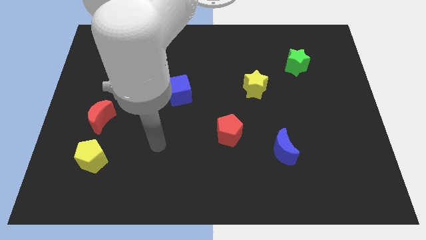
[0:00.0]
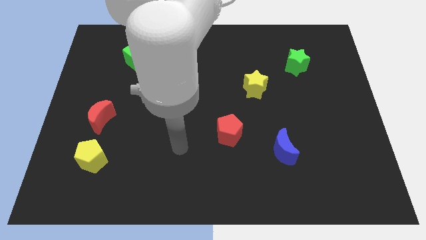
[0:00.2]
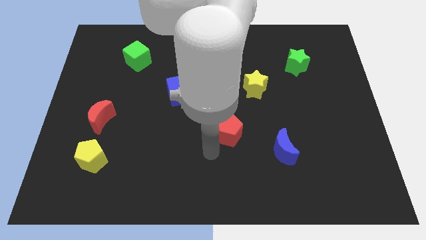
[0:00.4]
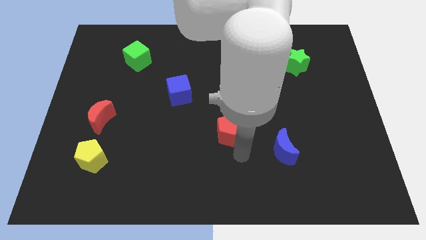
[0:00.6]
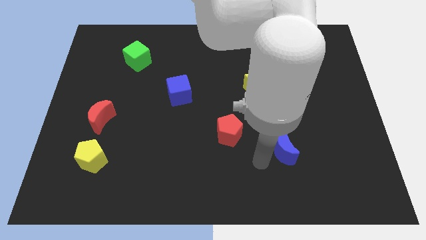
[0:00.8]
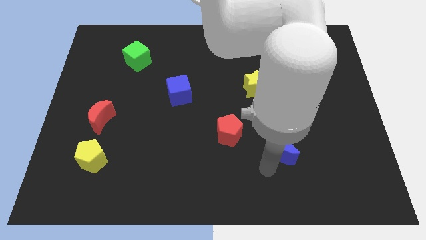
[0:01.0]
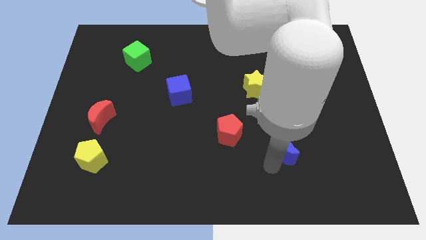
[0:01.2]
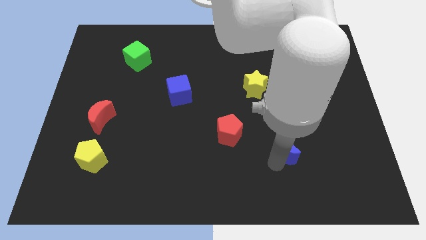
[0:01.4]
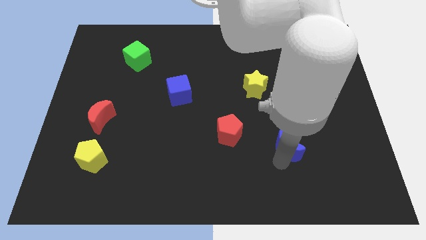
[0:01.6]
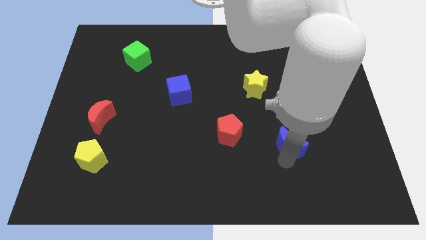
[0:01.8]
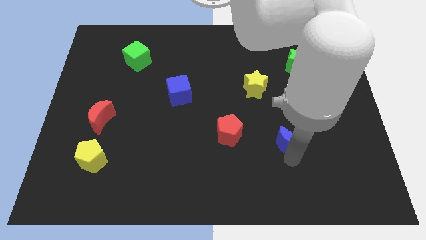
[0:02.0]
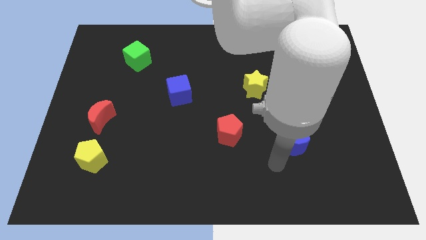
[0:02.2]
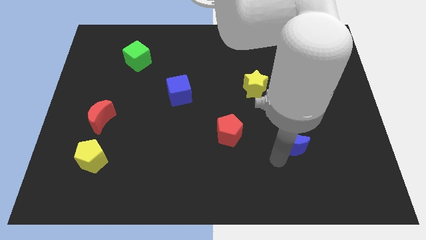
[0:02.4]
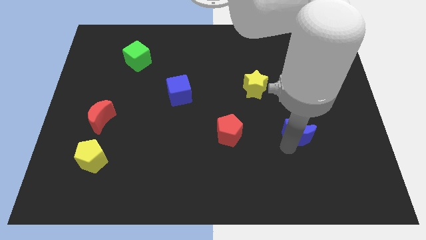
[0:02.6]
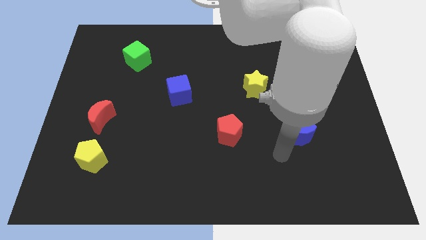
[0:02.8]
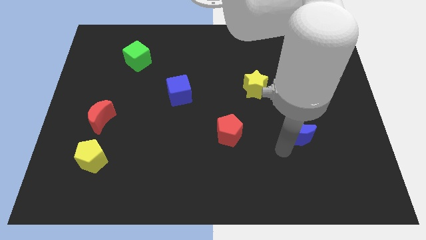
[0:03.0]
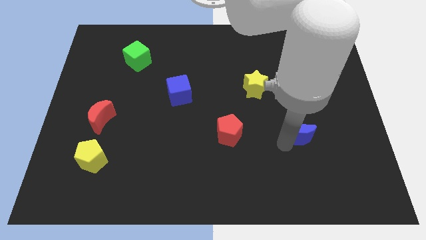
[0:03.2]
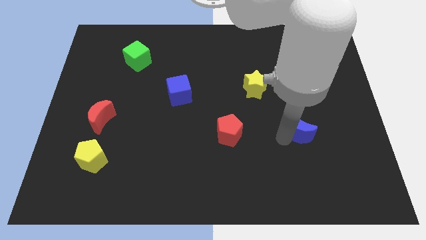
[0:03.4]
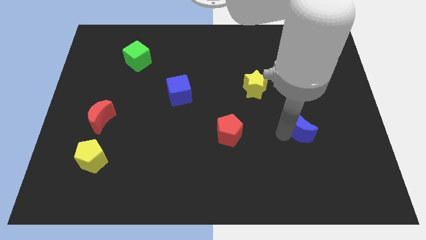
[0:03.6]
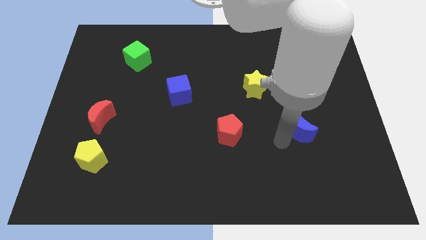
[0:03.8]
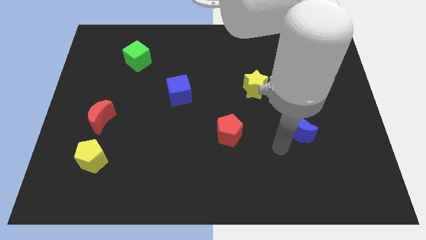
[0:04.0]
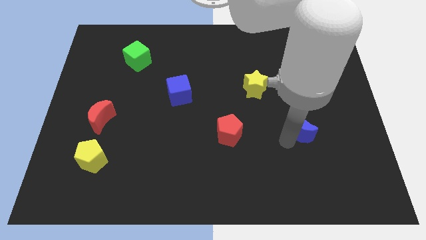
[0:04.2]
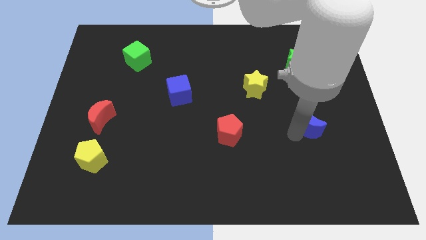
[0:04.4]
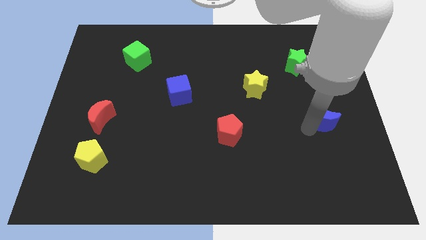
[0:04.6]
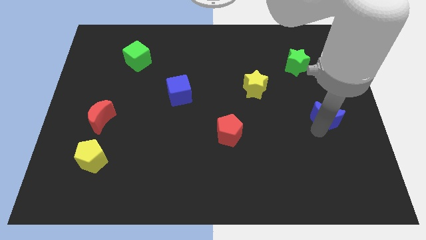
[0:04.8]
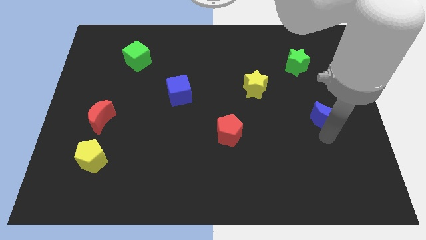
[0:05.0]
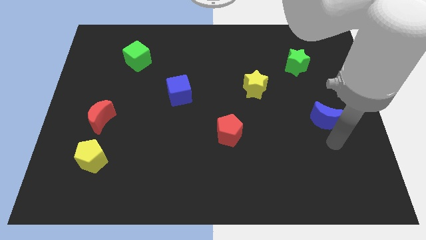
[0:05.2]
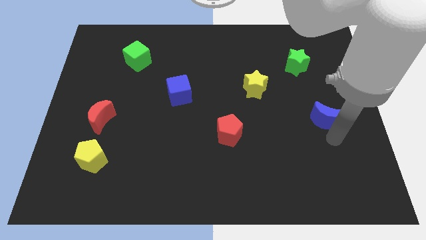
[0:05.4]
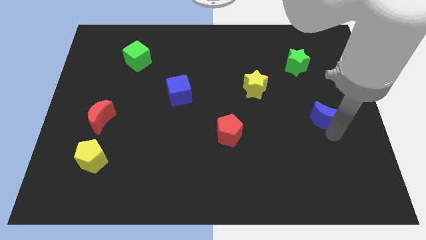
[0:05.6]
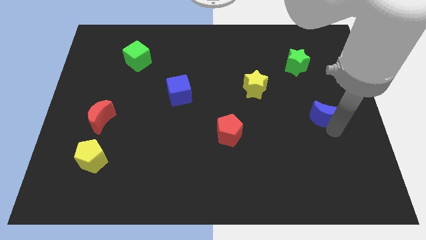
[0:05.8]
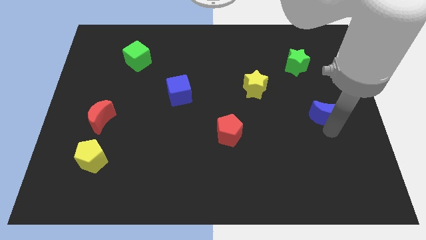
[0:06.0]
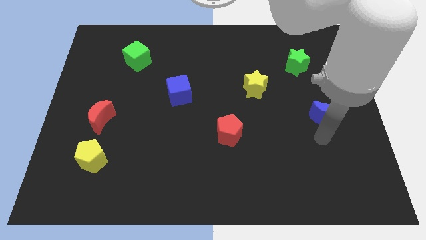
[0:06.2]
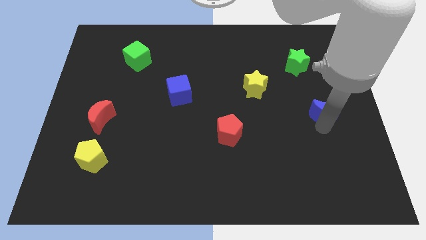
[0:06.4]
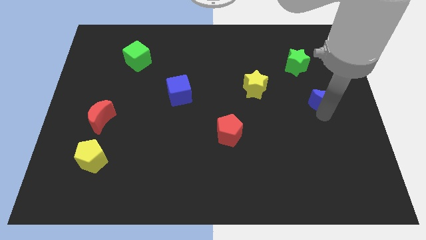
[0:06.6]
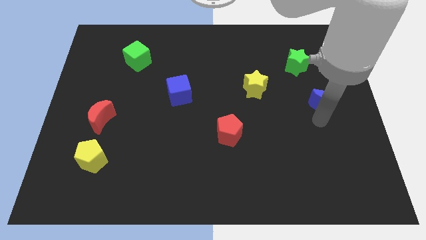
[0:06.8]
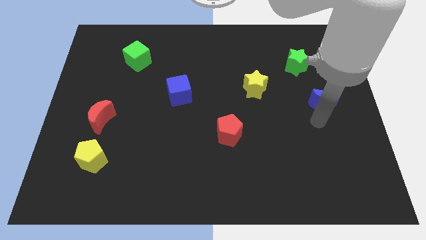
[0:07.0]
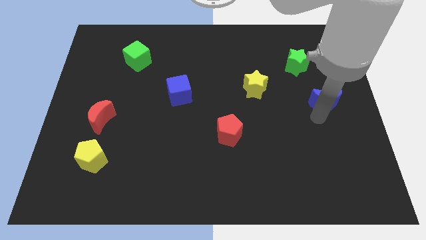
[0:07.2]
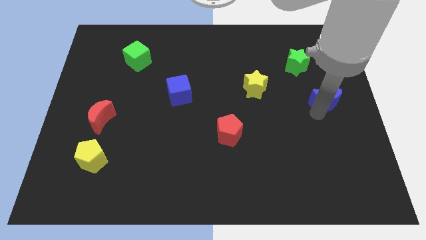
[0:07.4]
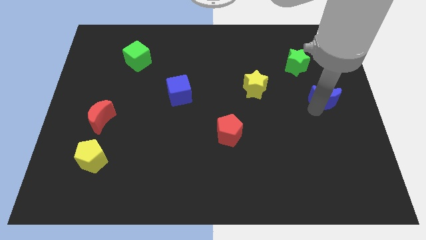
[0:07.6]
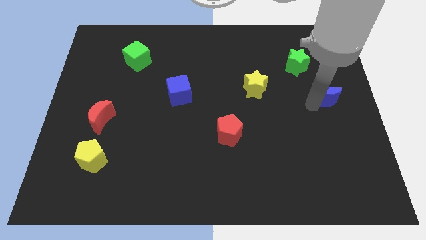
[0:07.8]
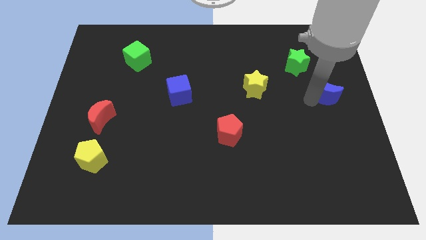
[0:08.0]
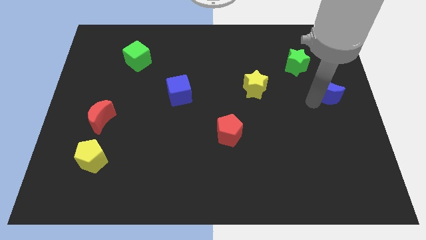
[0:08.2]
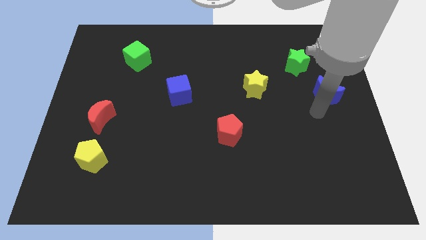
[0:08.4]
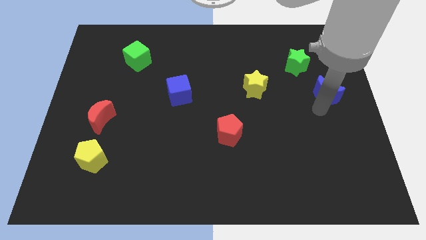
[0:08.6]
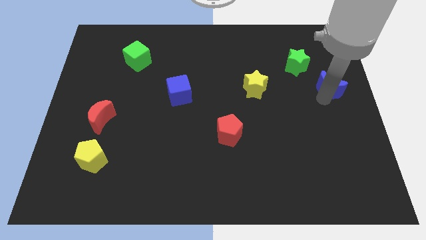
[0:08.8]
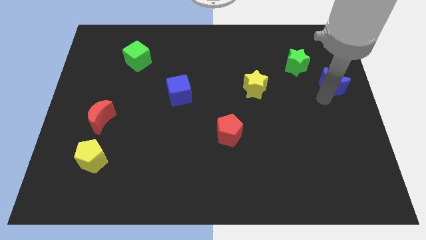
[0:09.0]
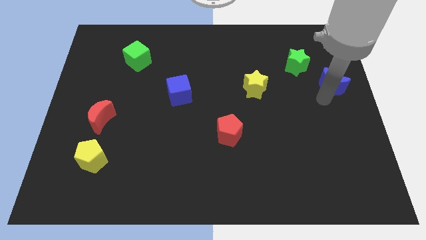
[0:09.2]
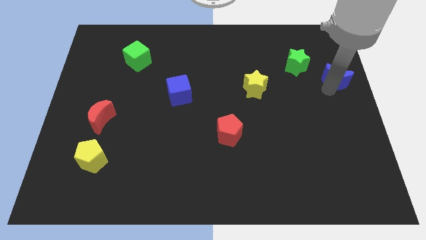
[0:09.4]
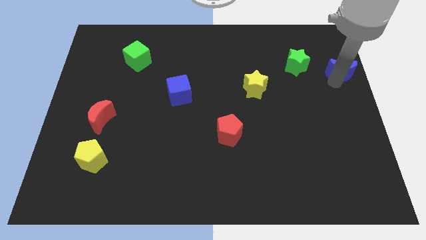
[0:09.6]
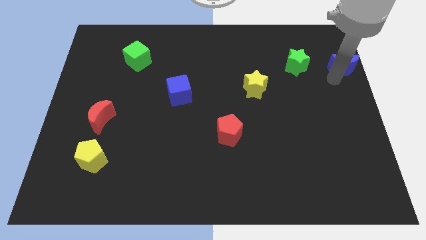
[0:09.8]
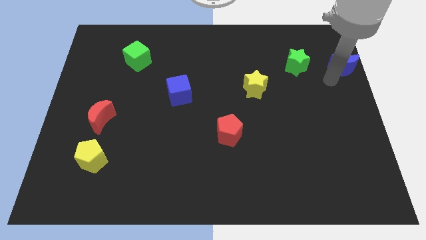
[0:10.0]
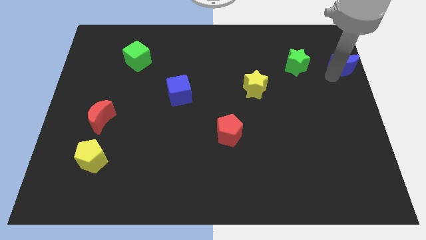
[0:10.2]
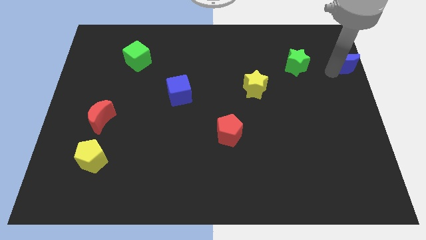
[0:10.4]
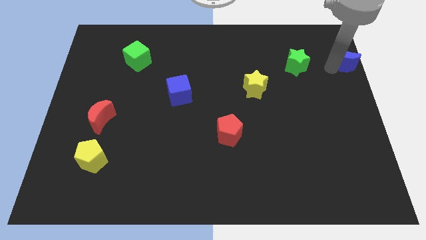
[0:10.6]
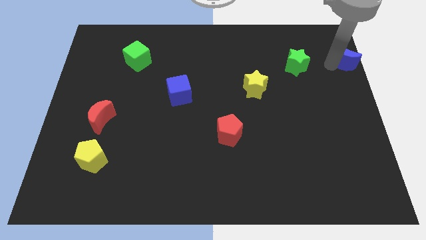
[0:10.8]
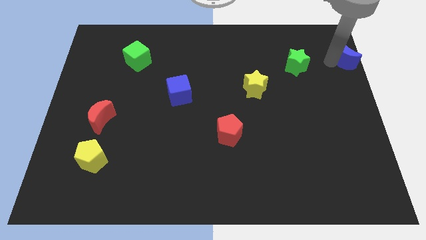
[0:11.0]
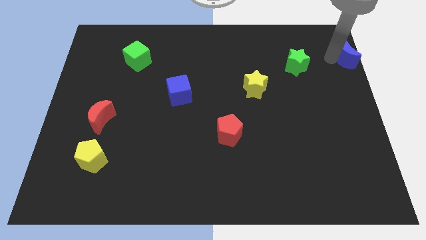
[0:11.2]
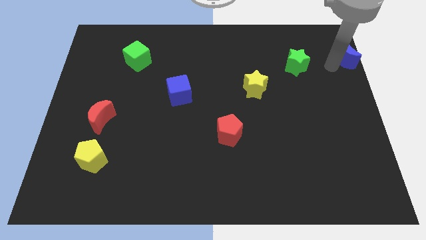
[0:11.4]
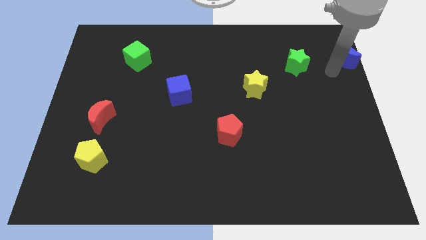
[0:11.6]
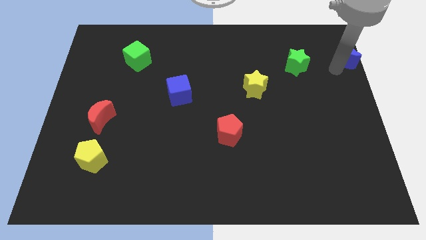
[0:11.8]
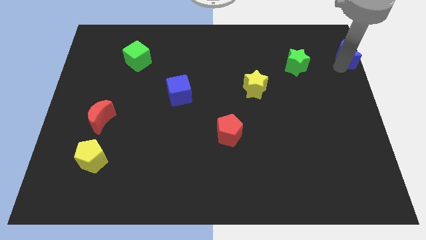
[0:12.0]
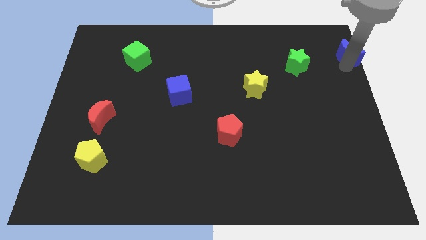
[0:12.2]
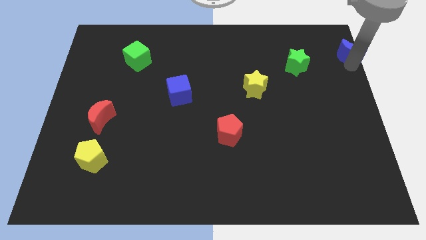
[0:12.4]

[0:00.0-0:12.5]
push the blue moon to the top right corner

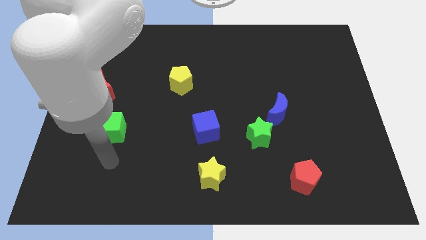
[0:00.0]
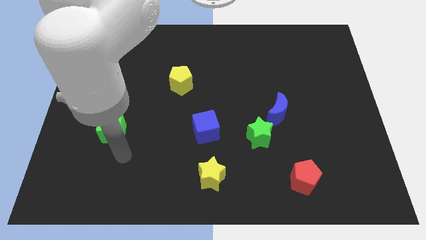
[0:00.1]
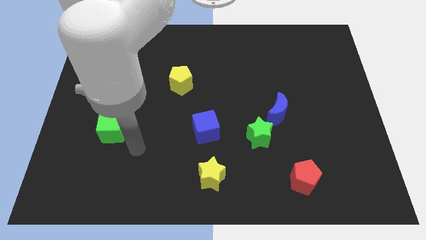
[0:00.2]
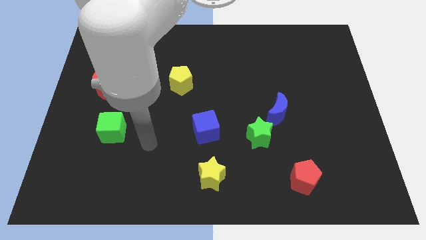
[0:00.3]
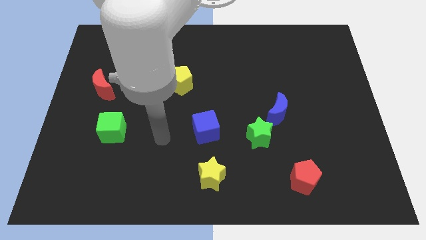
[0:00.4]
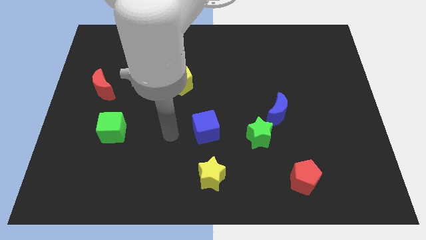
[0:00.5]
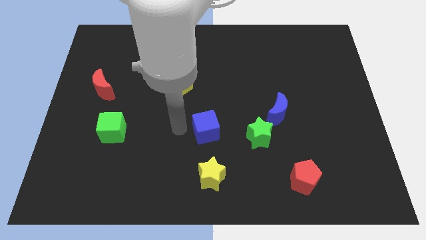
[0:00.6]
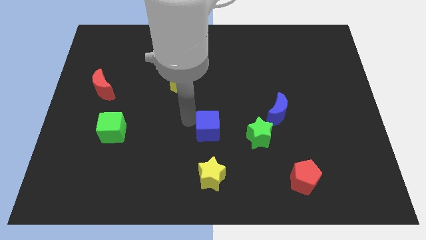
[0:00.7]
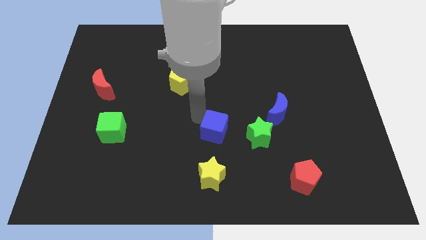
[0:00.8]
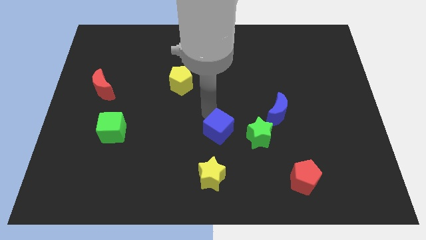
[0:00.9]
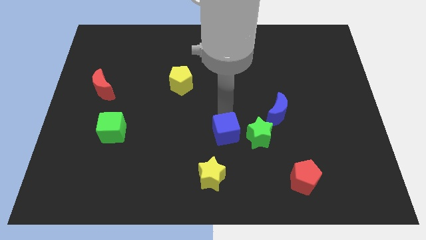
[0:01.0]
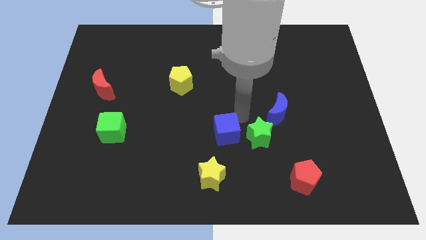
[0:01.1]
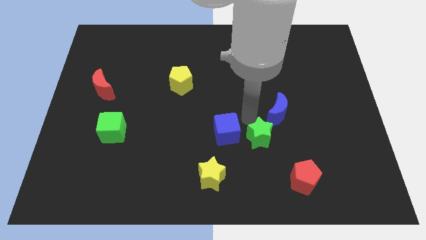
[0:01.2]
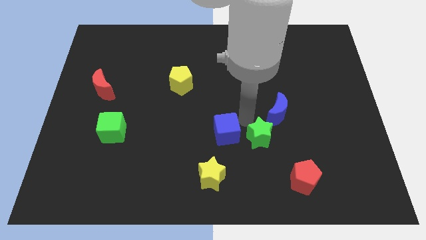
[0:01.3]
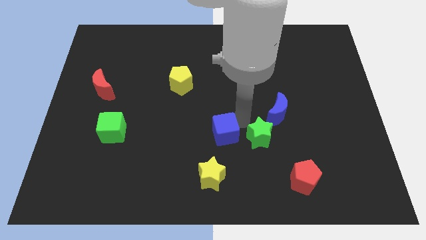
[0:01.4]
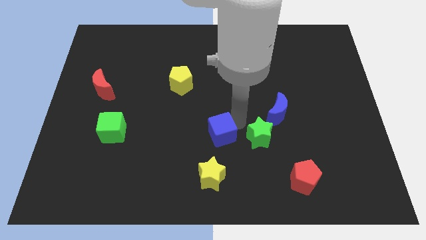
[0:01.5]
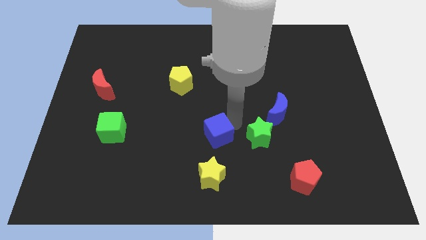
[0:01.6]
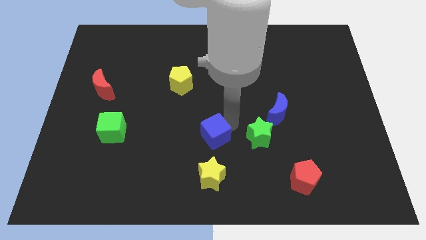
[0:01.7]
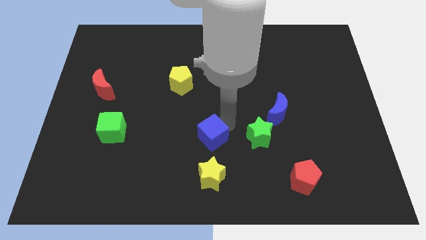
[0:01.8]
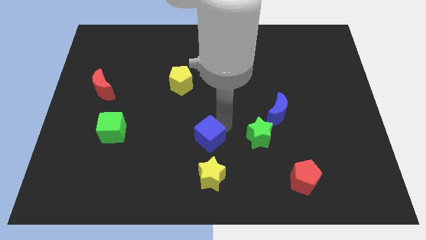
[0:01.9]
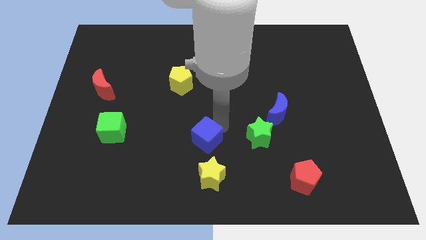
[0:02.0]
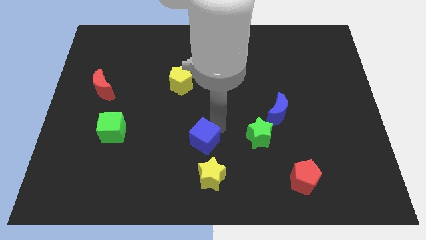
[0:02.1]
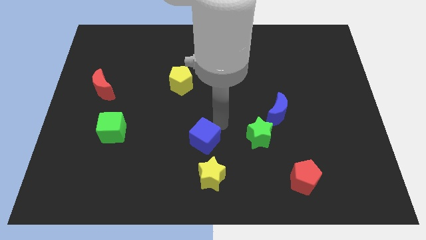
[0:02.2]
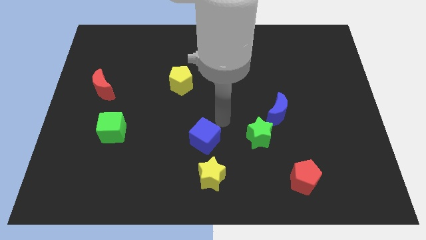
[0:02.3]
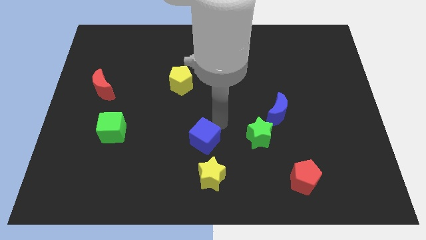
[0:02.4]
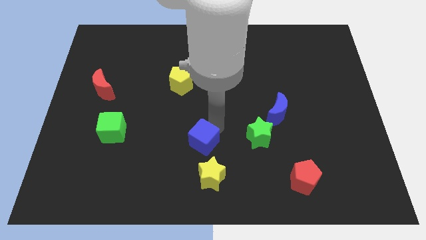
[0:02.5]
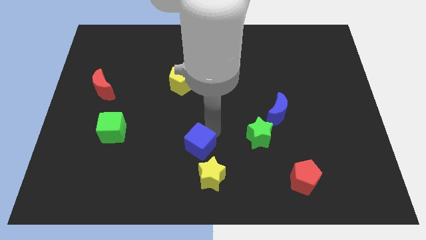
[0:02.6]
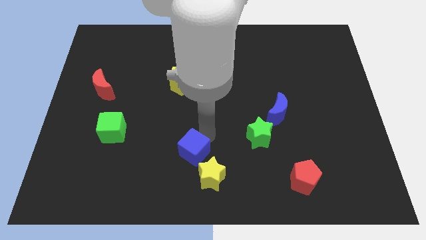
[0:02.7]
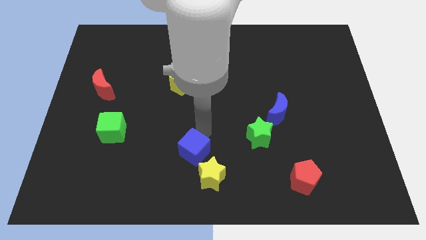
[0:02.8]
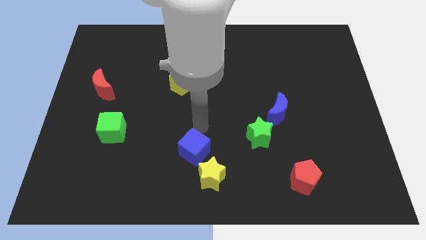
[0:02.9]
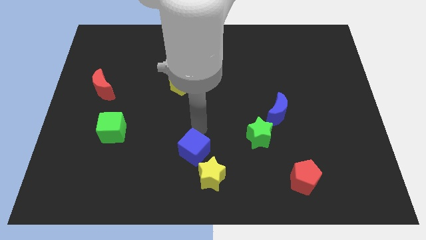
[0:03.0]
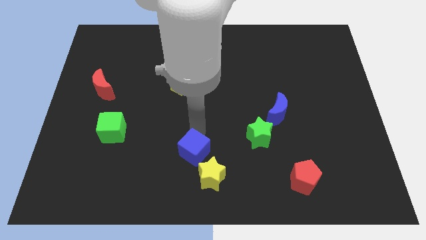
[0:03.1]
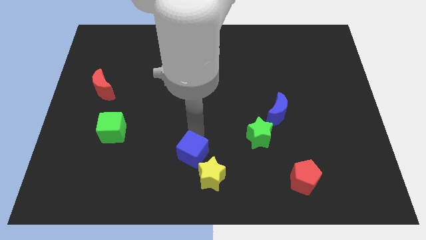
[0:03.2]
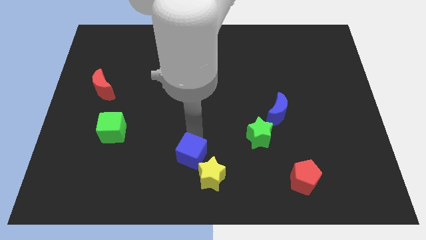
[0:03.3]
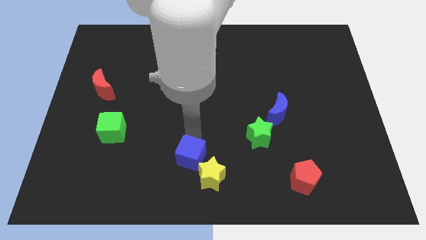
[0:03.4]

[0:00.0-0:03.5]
move the blue cube to the bottom
